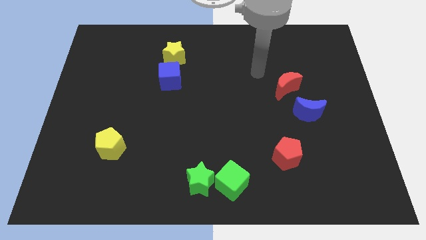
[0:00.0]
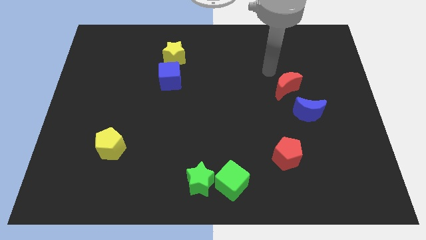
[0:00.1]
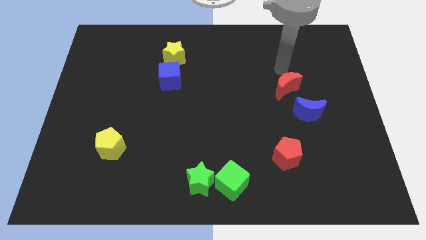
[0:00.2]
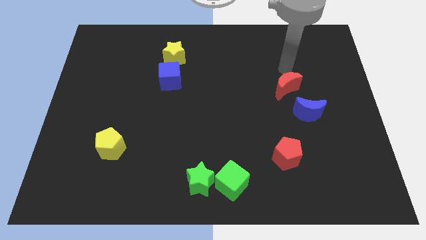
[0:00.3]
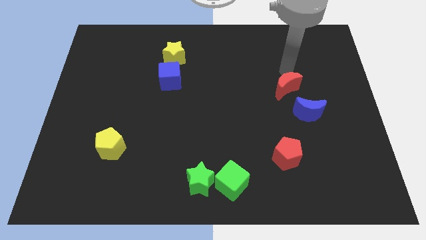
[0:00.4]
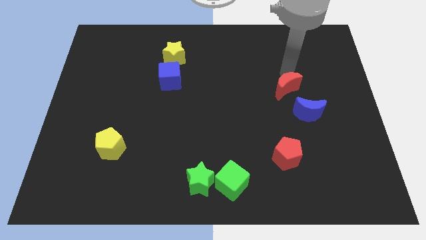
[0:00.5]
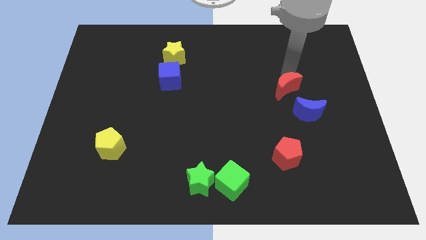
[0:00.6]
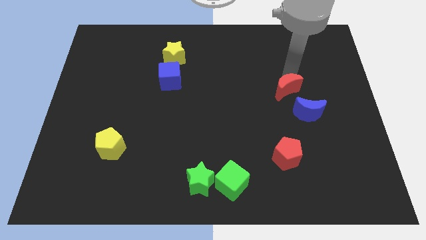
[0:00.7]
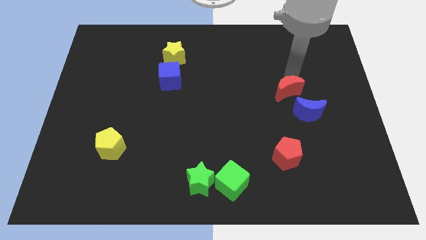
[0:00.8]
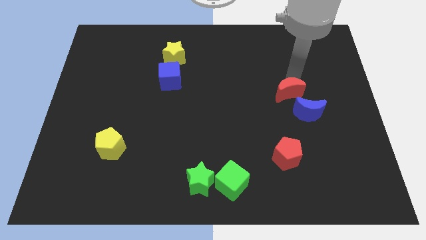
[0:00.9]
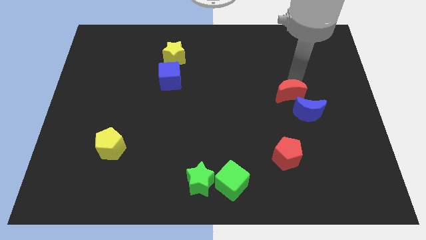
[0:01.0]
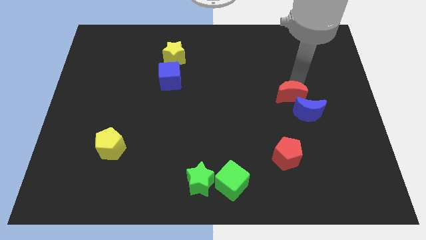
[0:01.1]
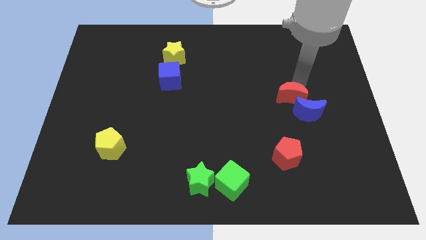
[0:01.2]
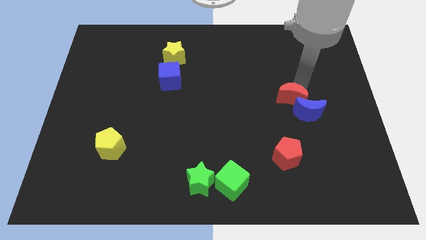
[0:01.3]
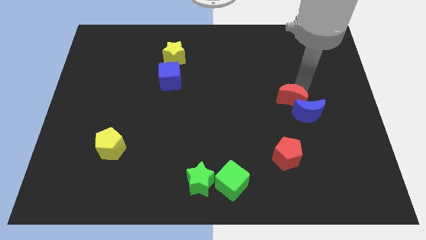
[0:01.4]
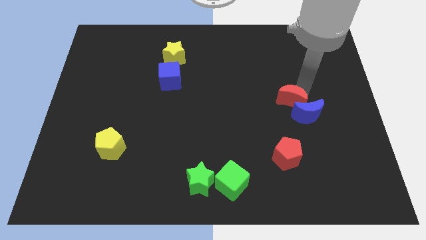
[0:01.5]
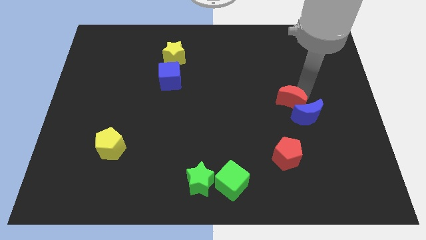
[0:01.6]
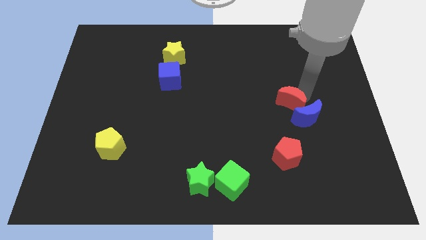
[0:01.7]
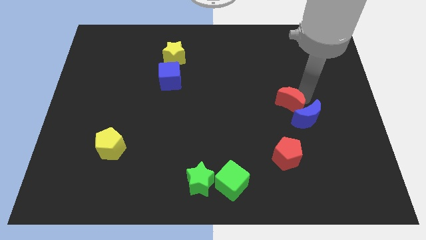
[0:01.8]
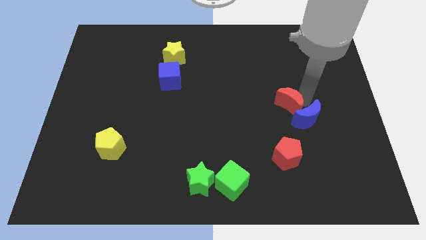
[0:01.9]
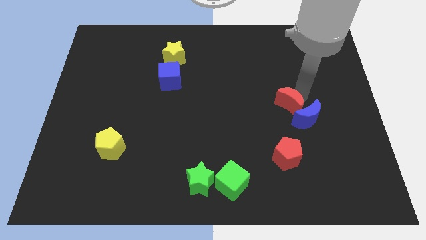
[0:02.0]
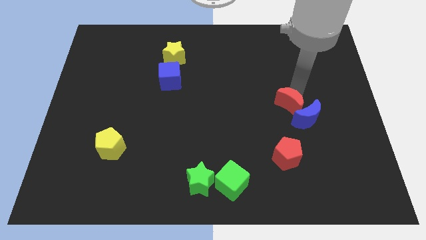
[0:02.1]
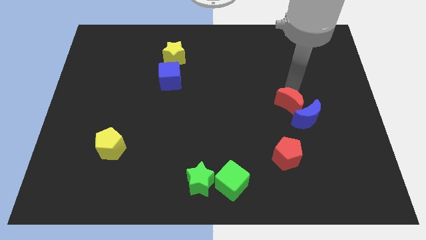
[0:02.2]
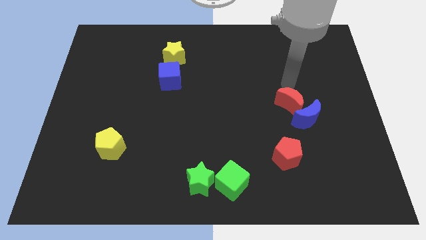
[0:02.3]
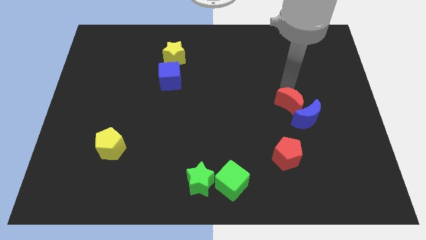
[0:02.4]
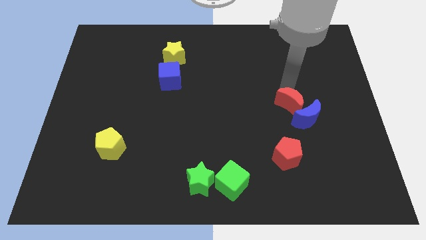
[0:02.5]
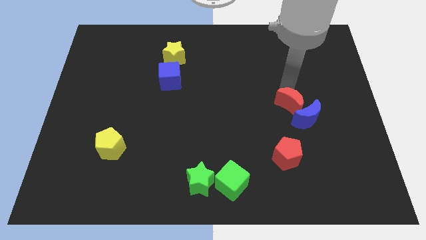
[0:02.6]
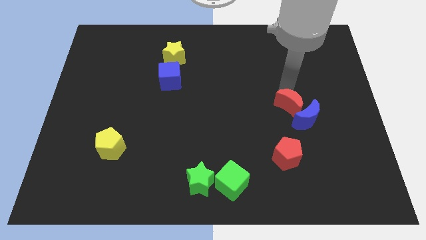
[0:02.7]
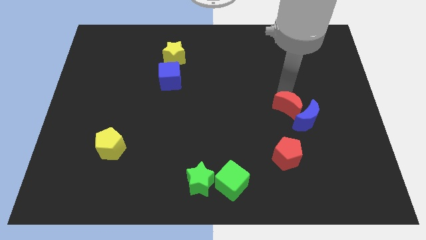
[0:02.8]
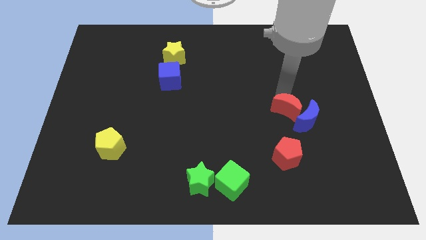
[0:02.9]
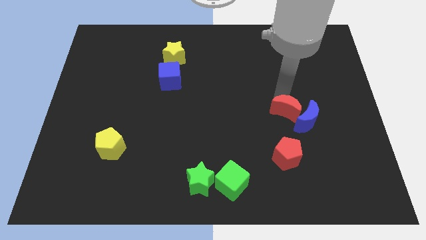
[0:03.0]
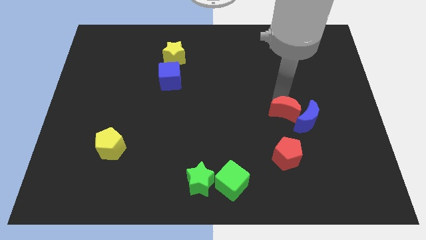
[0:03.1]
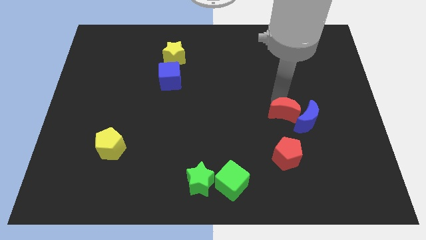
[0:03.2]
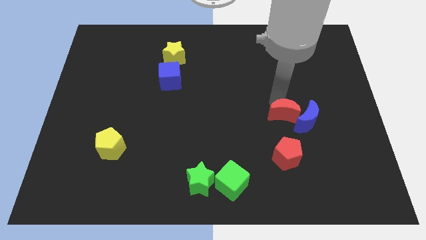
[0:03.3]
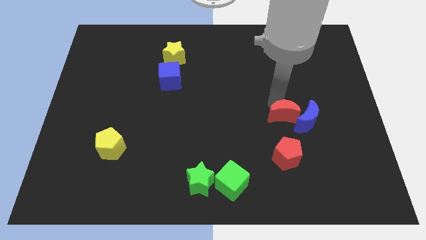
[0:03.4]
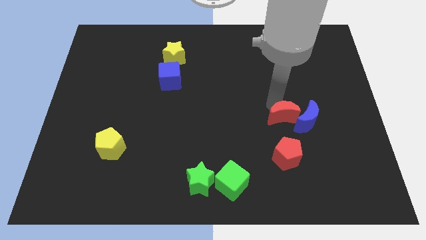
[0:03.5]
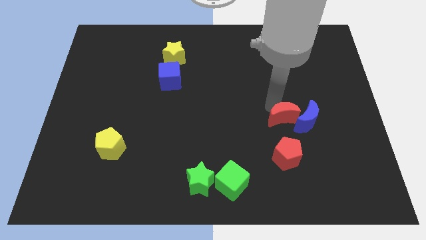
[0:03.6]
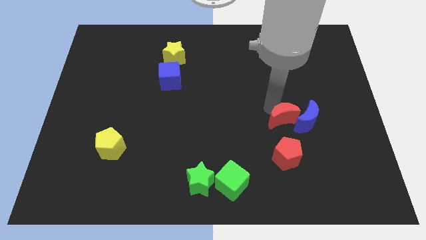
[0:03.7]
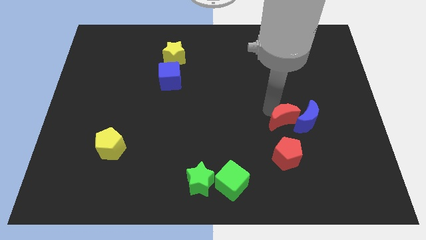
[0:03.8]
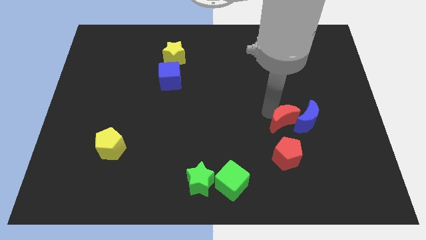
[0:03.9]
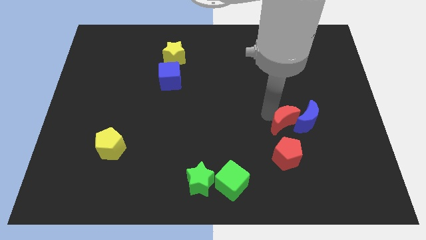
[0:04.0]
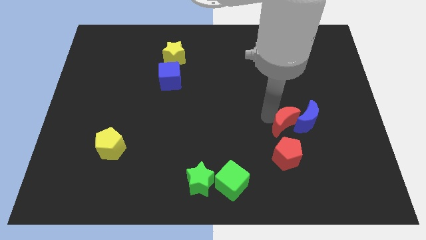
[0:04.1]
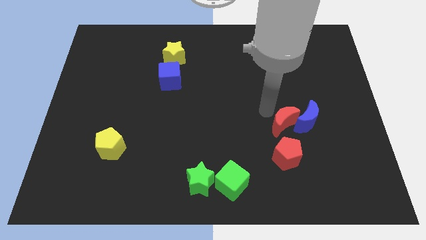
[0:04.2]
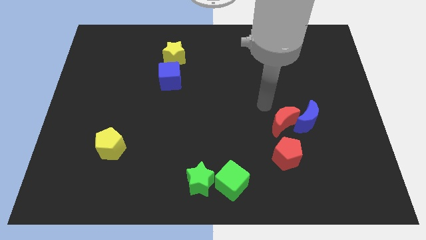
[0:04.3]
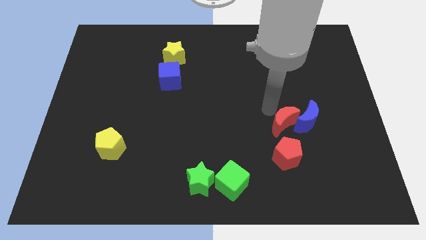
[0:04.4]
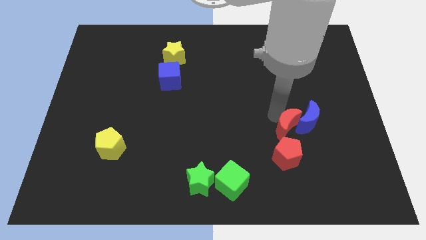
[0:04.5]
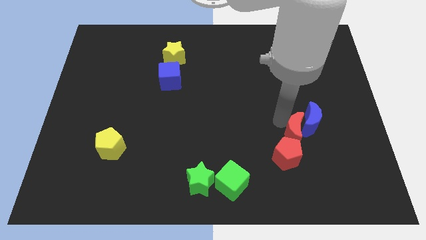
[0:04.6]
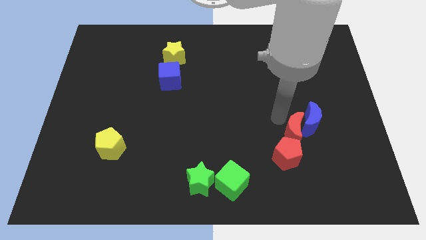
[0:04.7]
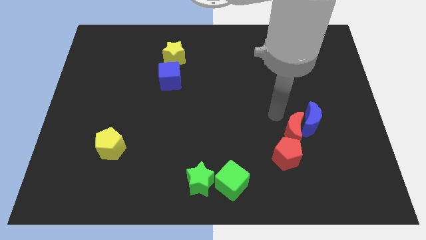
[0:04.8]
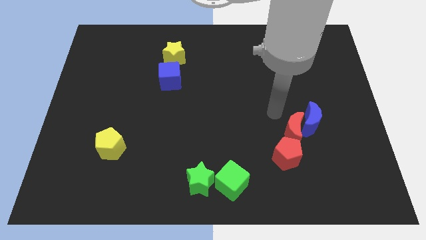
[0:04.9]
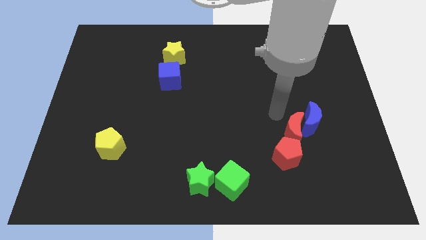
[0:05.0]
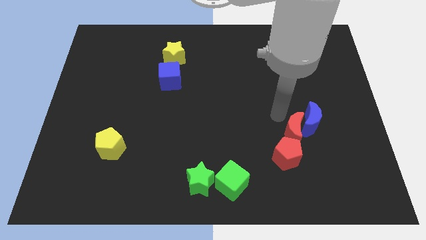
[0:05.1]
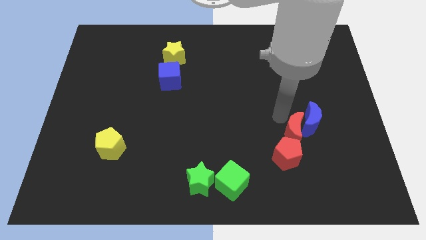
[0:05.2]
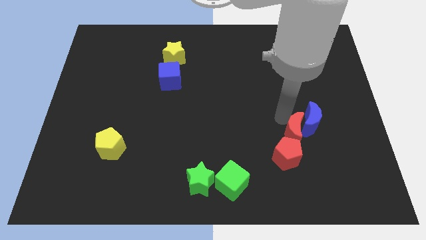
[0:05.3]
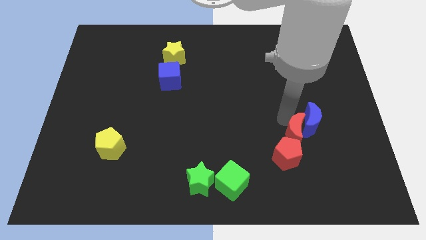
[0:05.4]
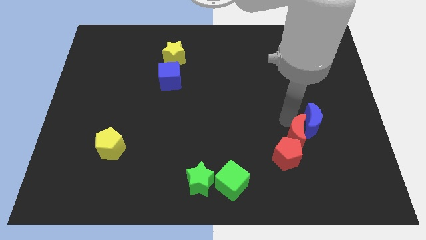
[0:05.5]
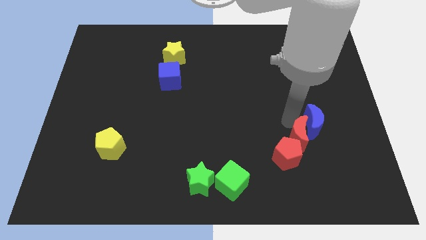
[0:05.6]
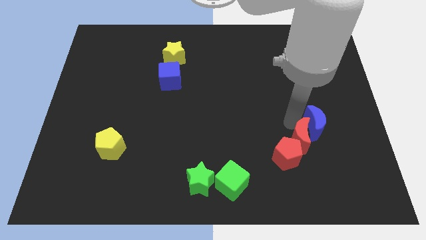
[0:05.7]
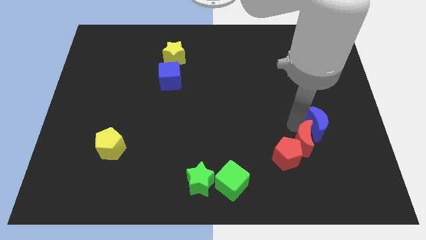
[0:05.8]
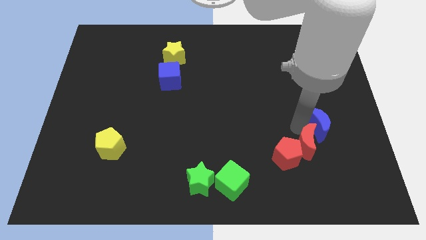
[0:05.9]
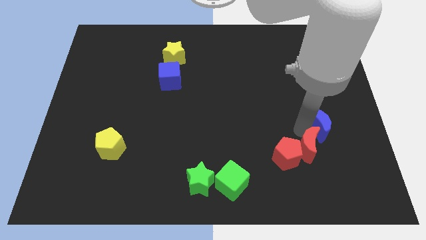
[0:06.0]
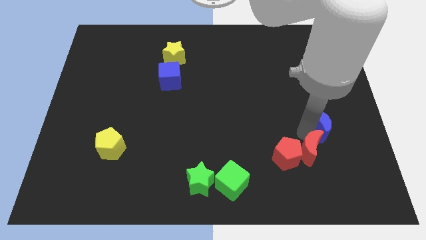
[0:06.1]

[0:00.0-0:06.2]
put the red moon to the bottom right of the red pentagon
